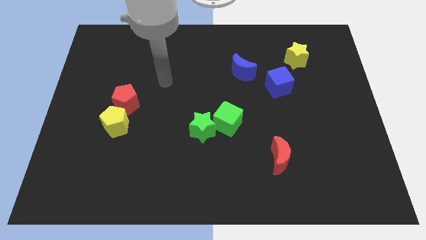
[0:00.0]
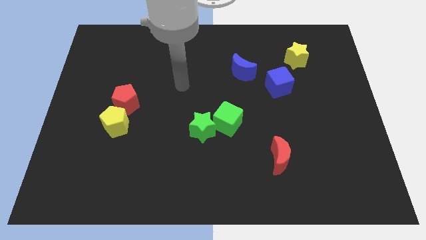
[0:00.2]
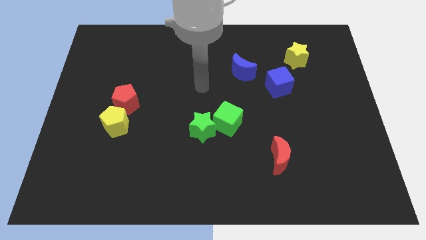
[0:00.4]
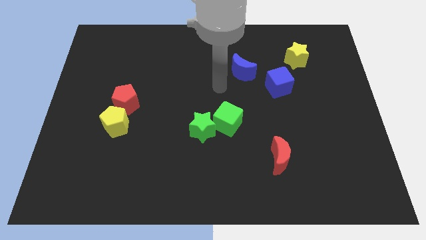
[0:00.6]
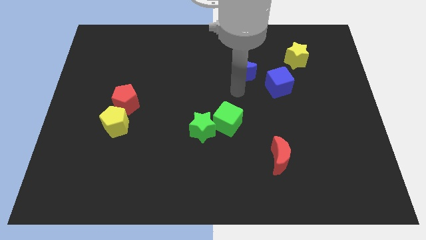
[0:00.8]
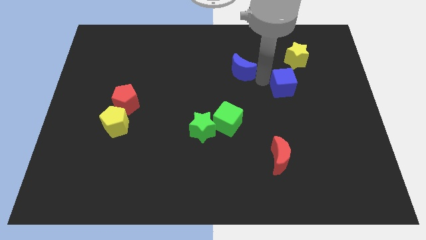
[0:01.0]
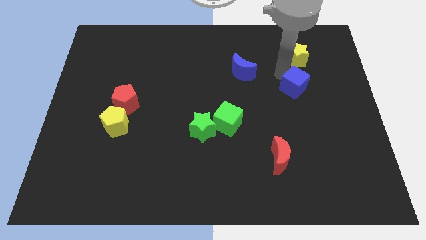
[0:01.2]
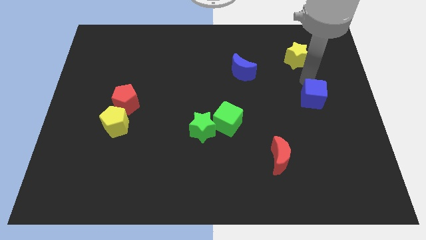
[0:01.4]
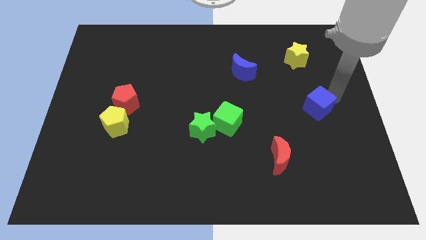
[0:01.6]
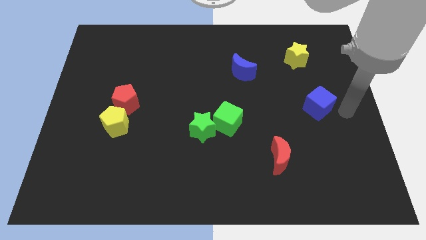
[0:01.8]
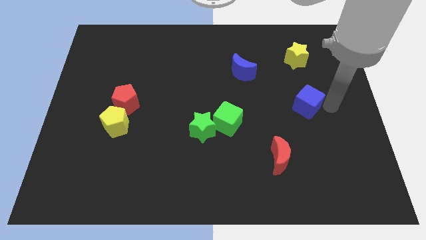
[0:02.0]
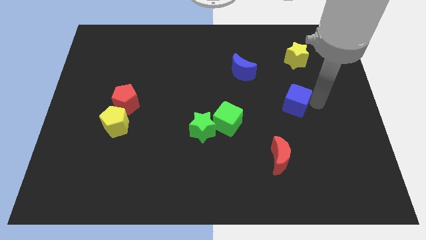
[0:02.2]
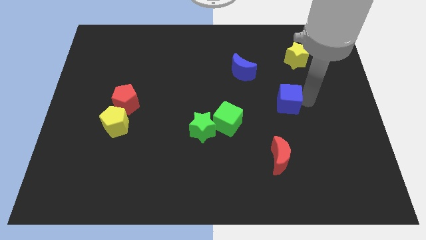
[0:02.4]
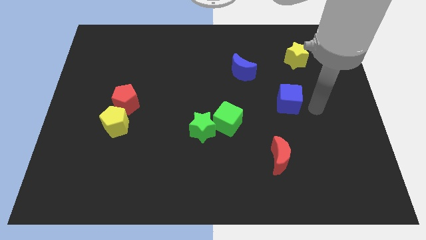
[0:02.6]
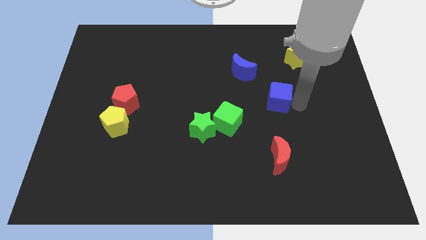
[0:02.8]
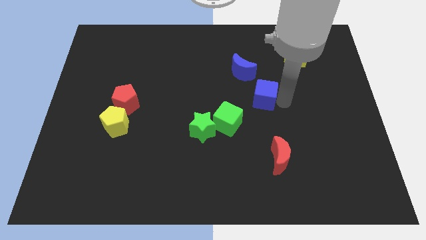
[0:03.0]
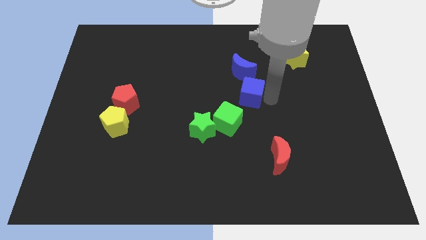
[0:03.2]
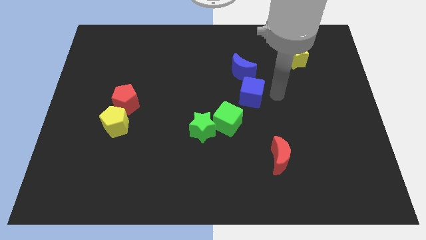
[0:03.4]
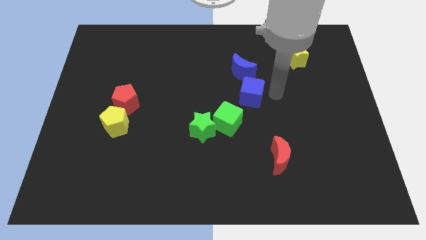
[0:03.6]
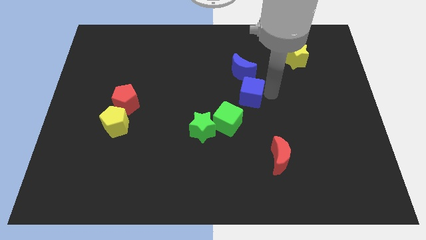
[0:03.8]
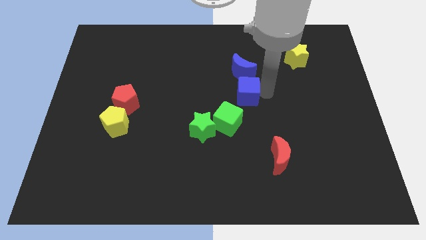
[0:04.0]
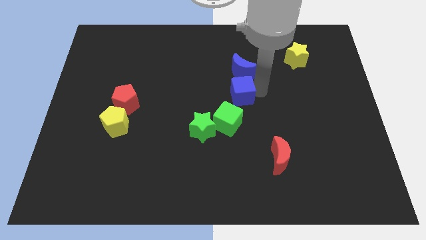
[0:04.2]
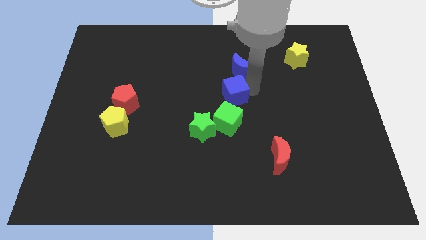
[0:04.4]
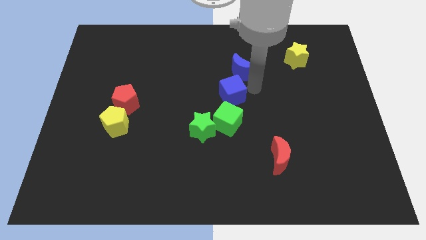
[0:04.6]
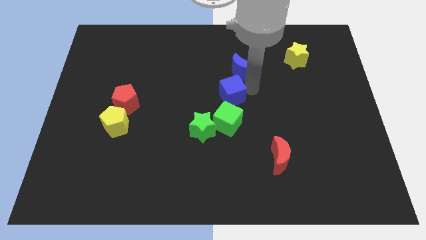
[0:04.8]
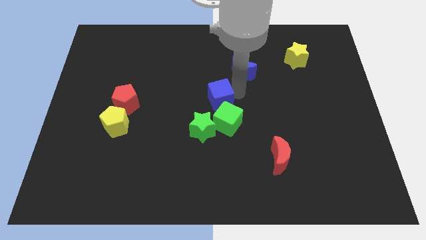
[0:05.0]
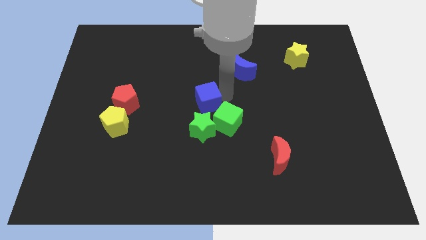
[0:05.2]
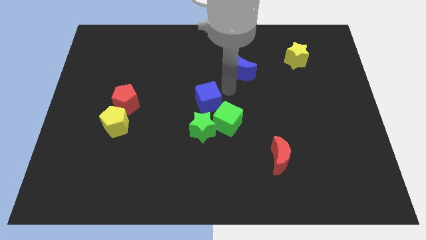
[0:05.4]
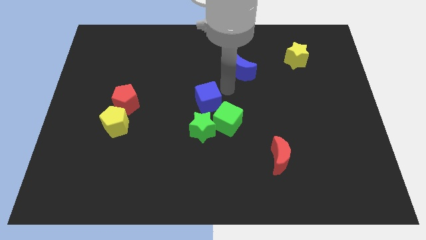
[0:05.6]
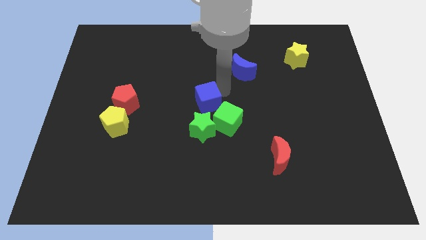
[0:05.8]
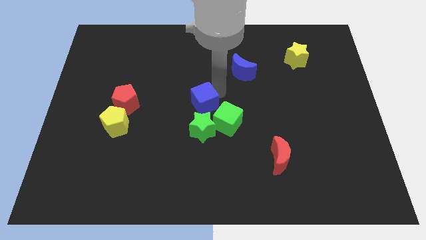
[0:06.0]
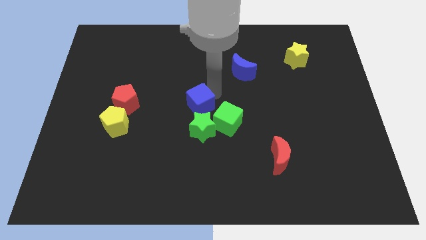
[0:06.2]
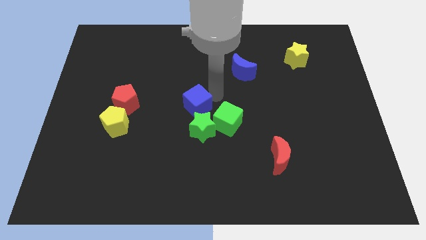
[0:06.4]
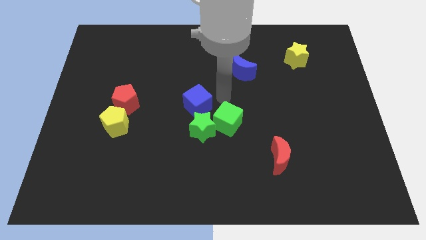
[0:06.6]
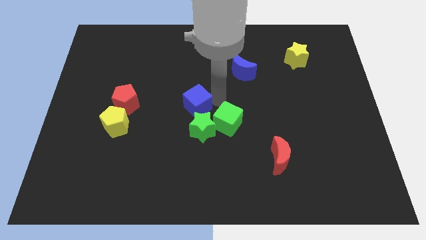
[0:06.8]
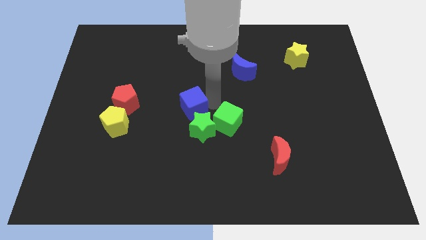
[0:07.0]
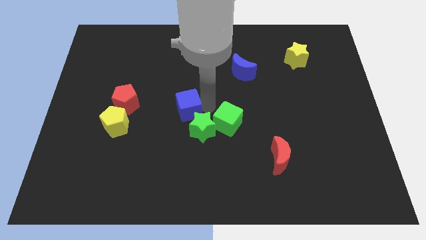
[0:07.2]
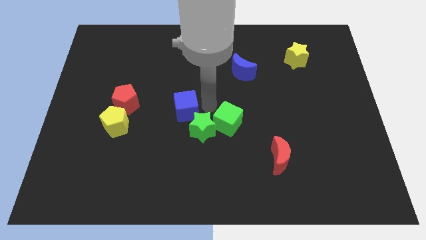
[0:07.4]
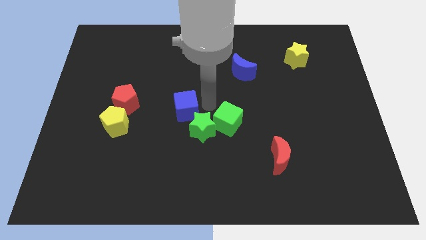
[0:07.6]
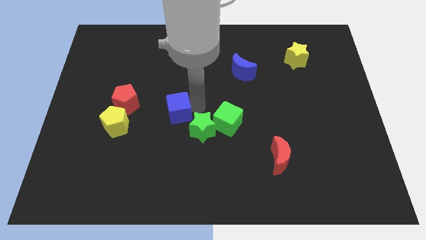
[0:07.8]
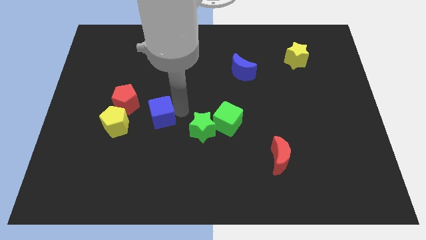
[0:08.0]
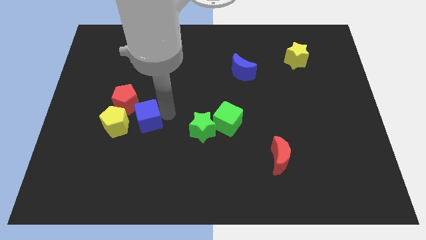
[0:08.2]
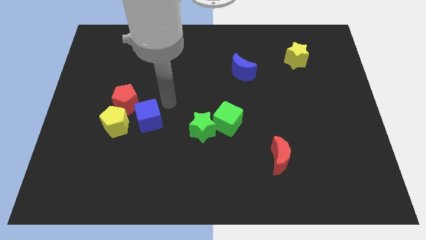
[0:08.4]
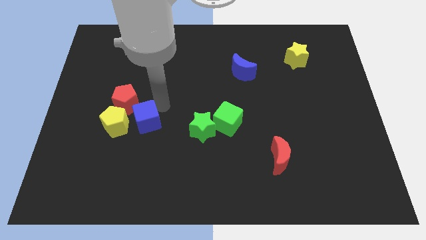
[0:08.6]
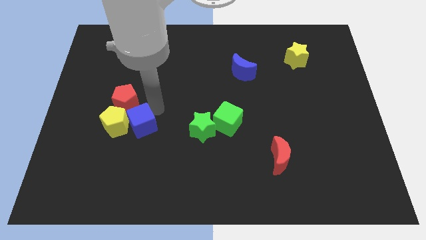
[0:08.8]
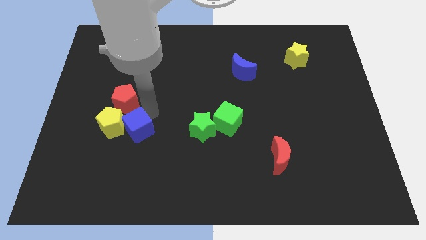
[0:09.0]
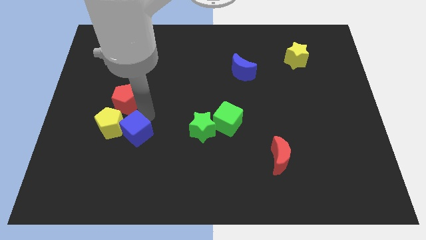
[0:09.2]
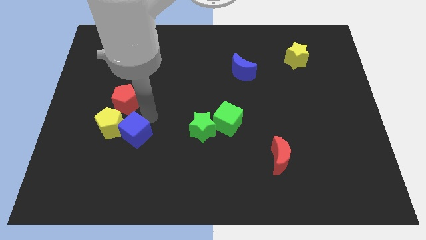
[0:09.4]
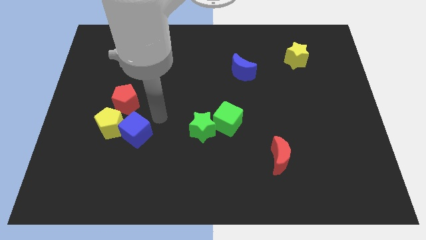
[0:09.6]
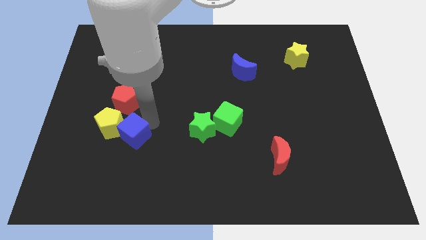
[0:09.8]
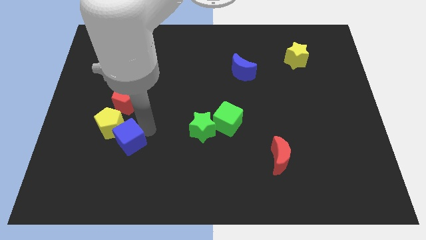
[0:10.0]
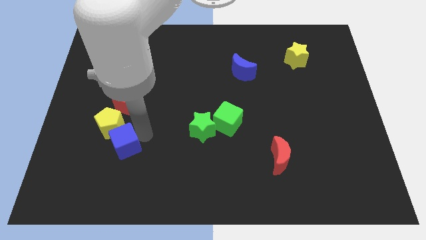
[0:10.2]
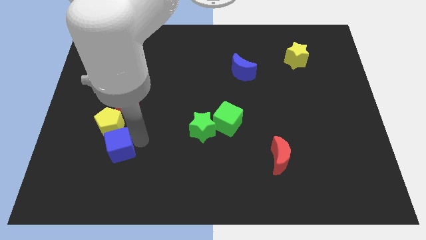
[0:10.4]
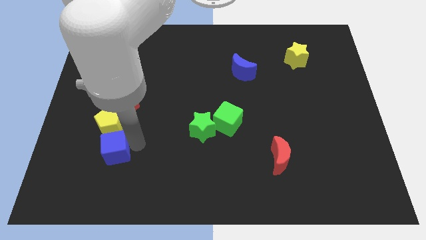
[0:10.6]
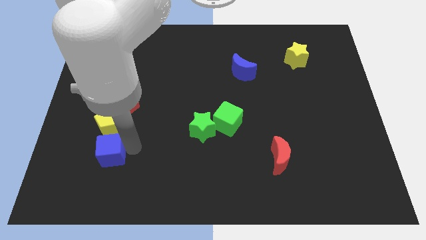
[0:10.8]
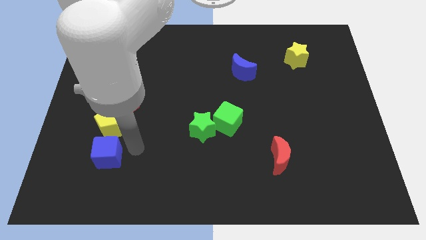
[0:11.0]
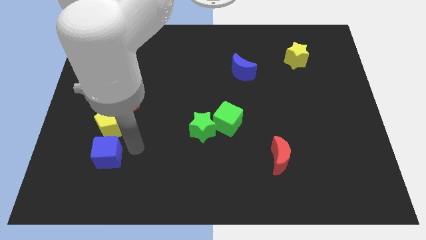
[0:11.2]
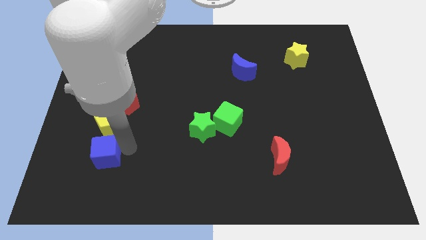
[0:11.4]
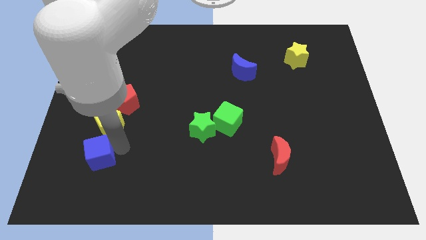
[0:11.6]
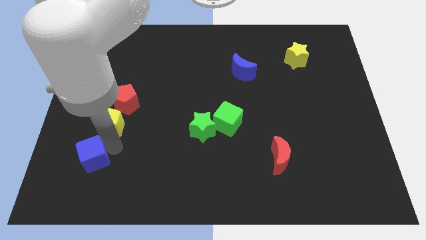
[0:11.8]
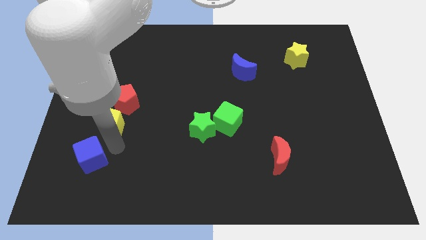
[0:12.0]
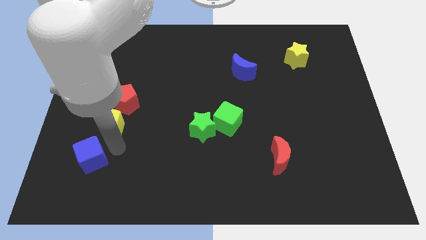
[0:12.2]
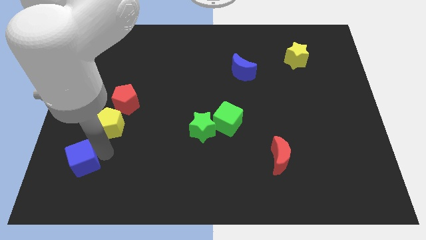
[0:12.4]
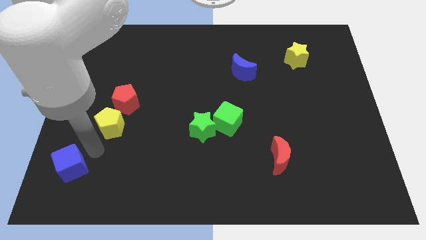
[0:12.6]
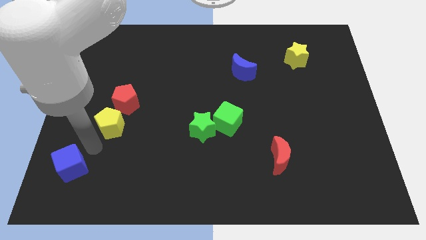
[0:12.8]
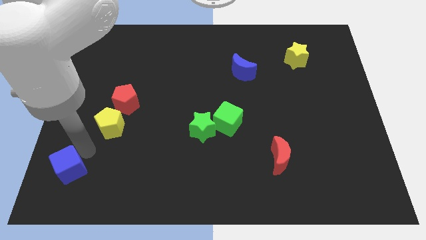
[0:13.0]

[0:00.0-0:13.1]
push the blue cube to the bottom left
